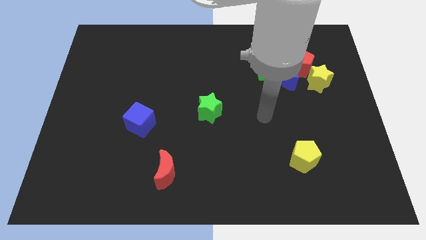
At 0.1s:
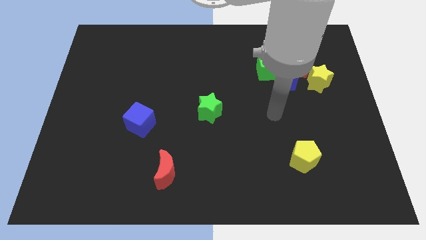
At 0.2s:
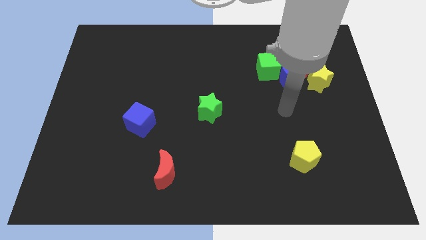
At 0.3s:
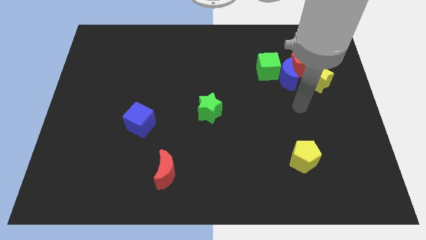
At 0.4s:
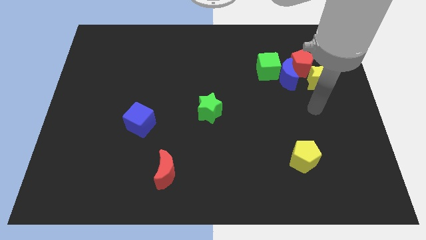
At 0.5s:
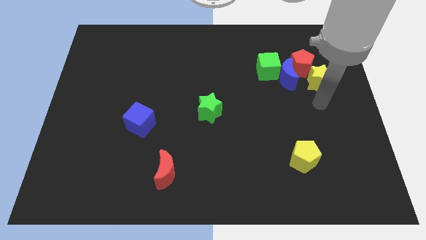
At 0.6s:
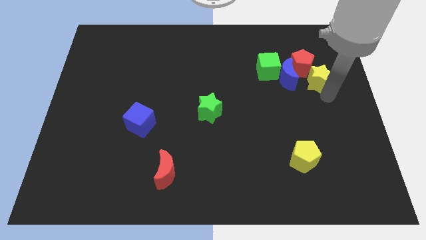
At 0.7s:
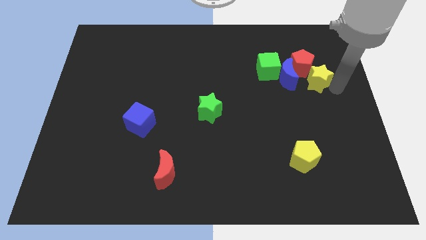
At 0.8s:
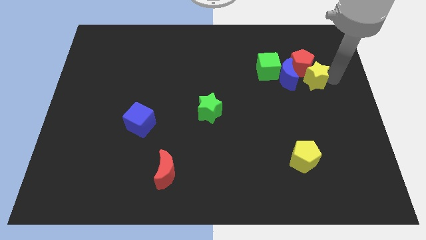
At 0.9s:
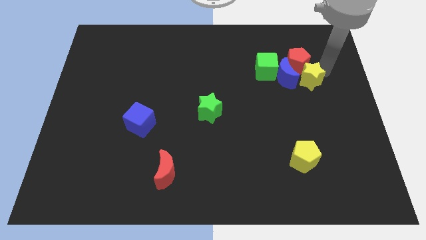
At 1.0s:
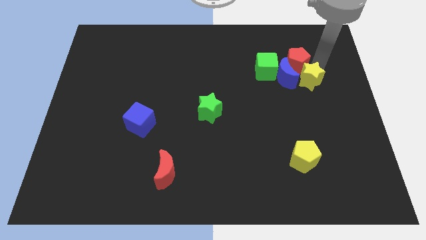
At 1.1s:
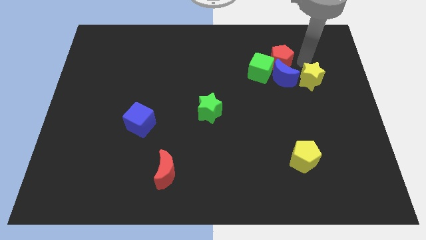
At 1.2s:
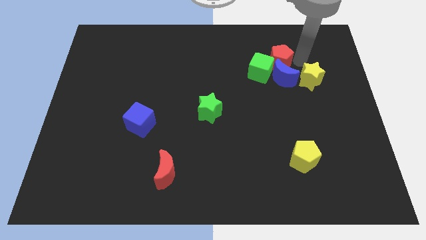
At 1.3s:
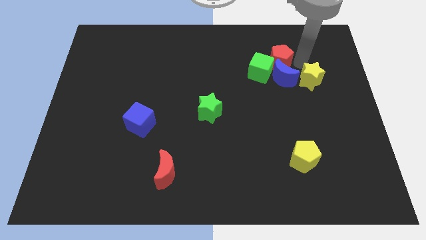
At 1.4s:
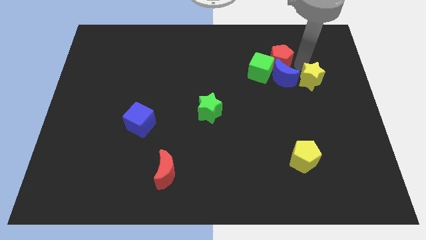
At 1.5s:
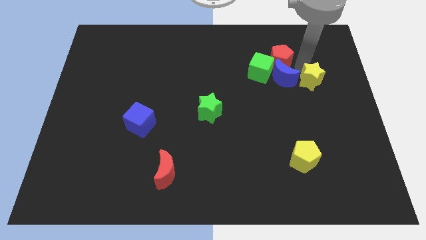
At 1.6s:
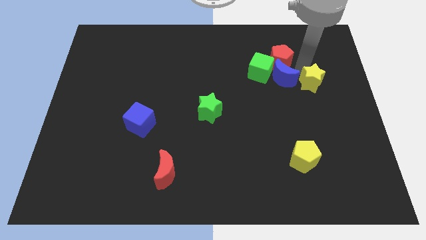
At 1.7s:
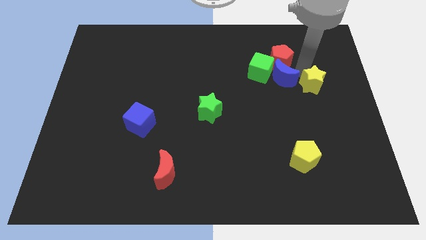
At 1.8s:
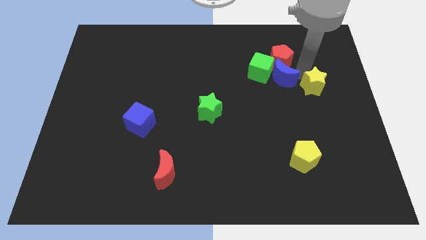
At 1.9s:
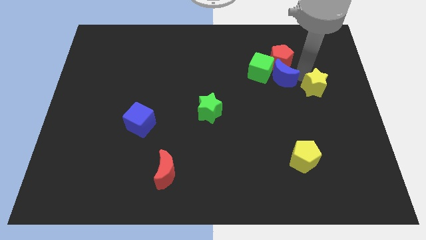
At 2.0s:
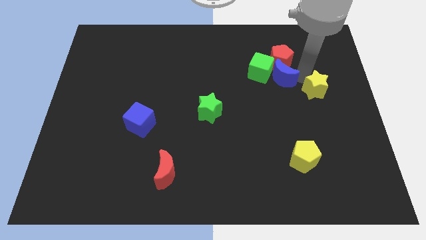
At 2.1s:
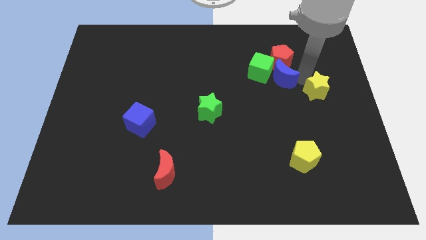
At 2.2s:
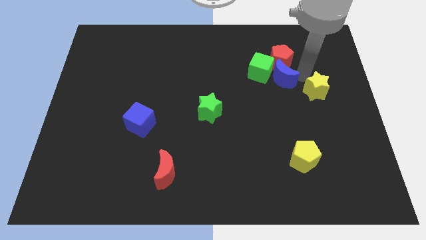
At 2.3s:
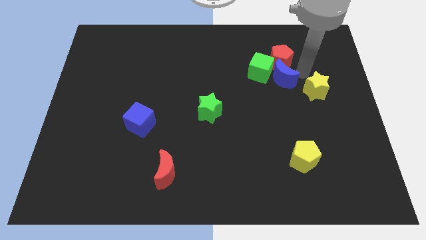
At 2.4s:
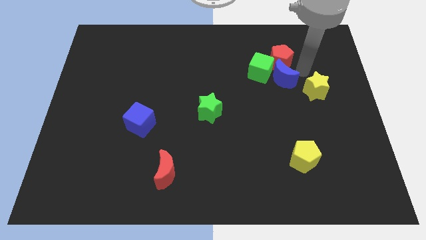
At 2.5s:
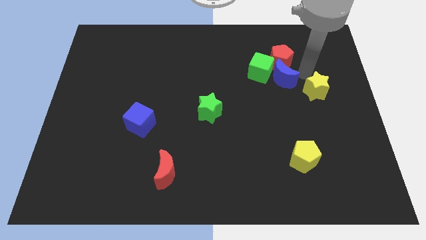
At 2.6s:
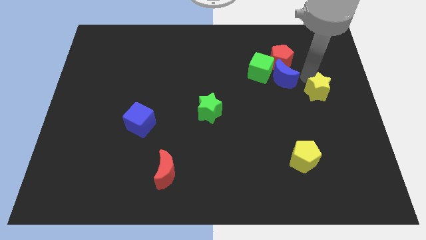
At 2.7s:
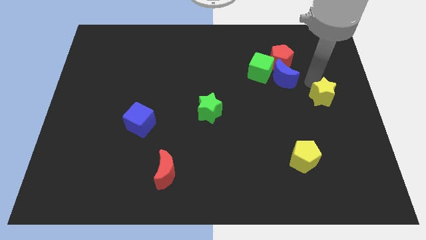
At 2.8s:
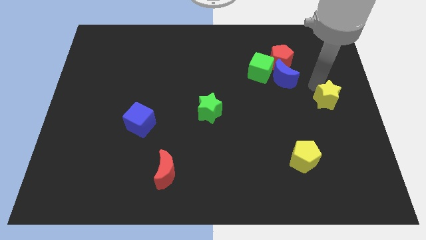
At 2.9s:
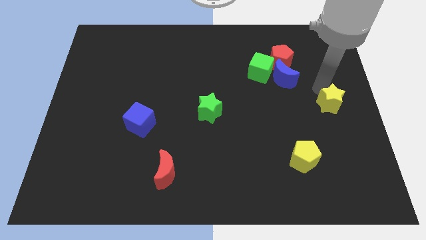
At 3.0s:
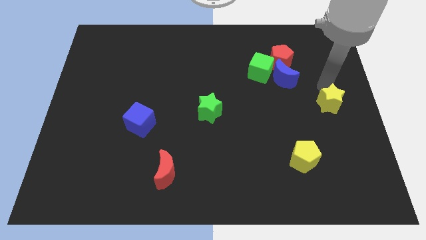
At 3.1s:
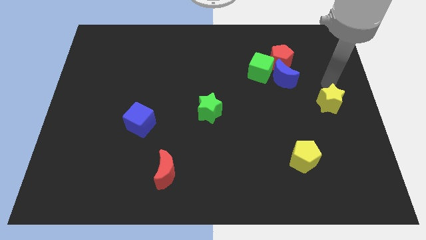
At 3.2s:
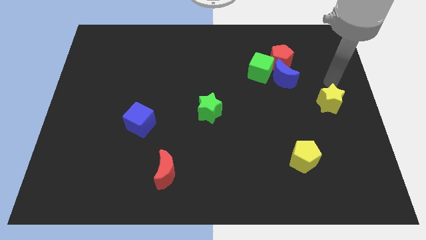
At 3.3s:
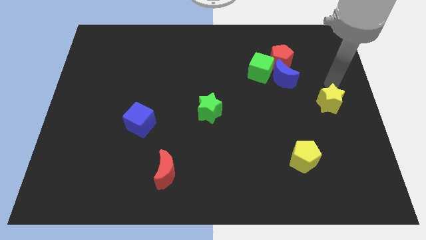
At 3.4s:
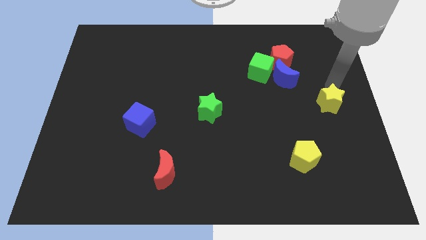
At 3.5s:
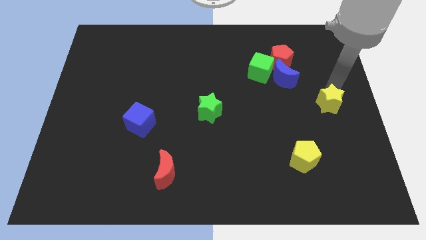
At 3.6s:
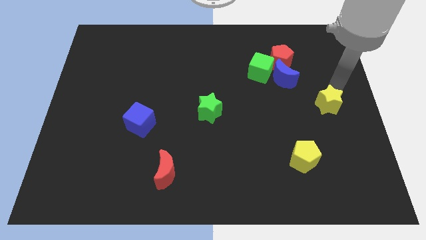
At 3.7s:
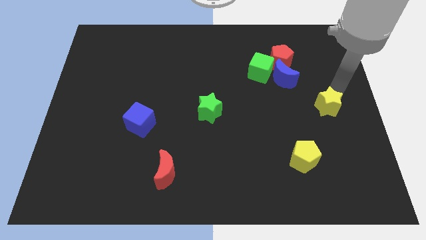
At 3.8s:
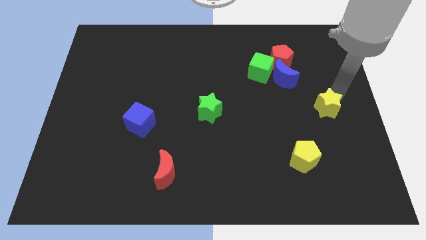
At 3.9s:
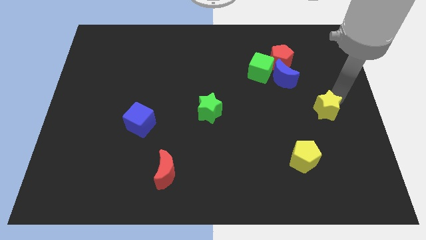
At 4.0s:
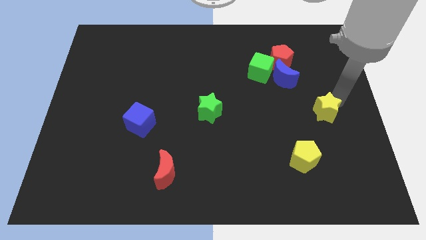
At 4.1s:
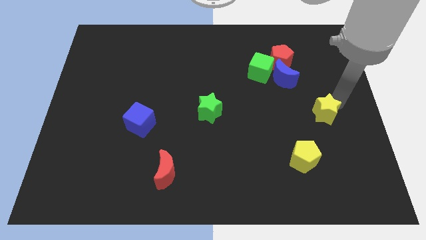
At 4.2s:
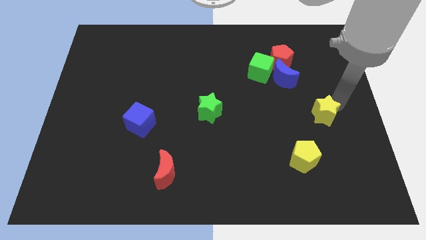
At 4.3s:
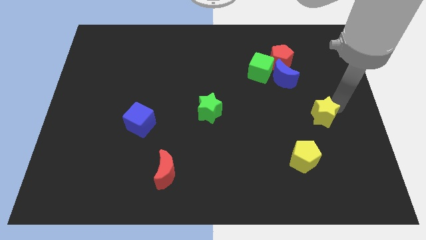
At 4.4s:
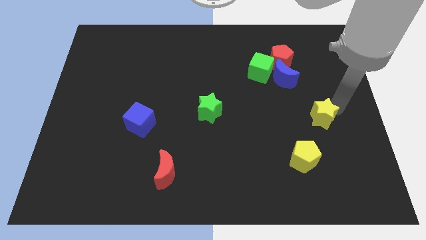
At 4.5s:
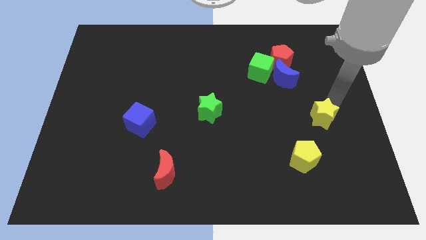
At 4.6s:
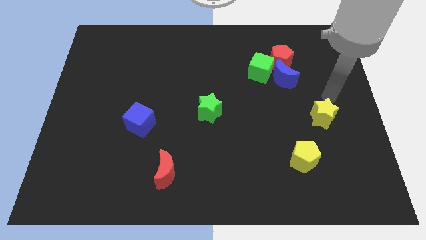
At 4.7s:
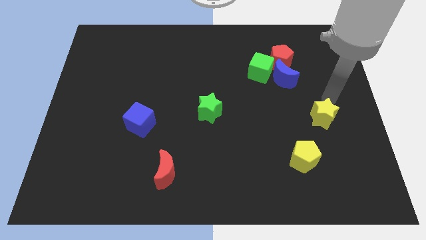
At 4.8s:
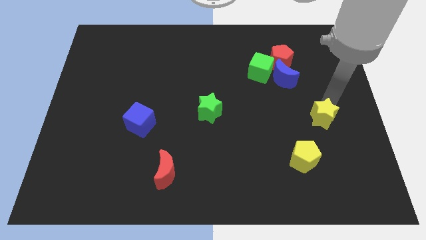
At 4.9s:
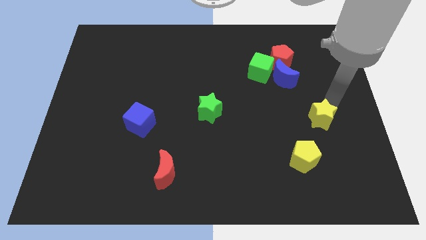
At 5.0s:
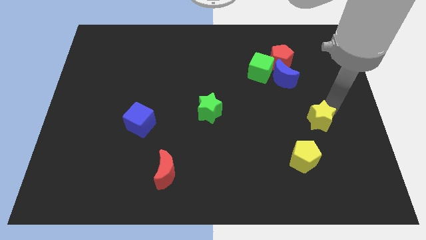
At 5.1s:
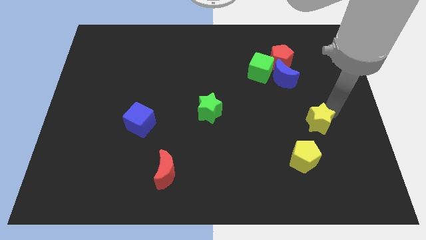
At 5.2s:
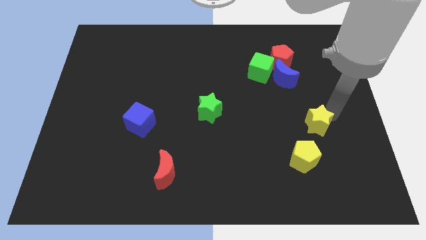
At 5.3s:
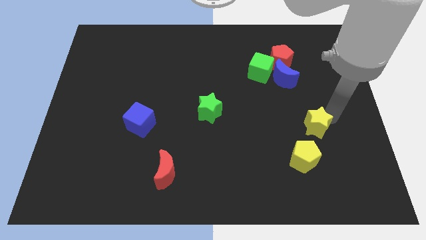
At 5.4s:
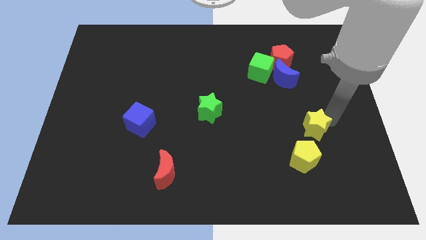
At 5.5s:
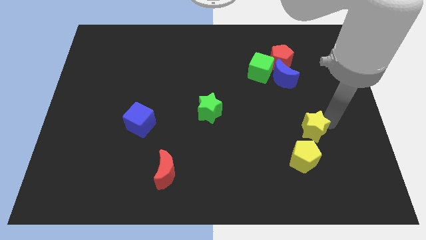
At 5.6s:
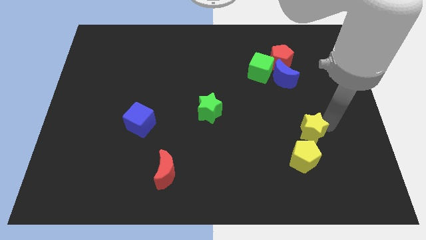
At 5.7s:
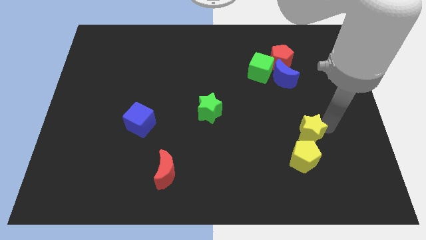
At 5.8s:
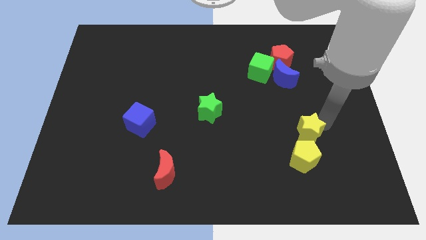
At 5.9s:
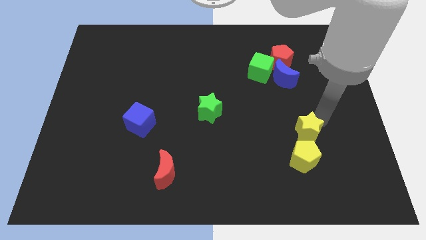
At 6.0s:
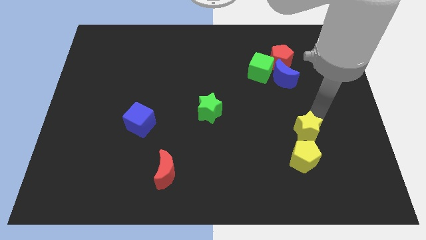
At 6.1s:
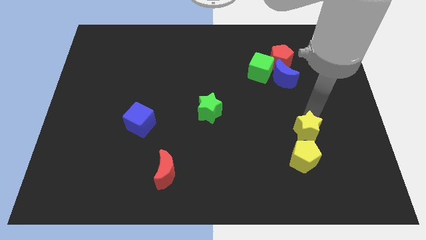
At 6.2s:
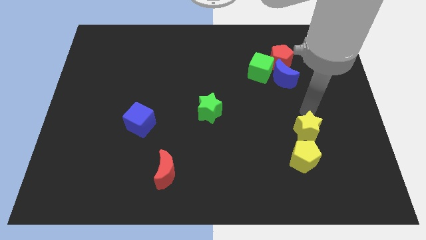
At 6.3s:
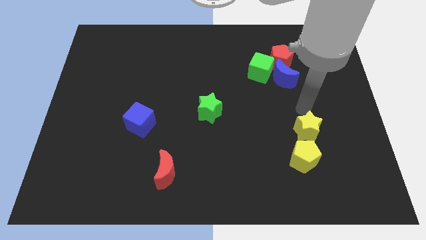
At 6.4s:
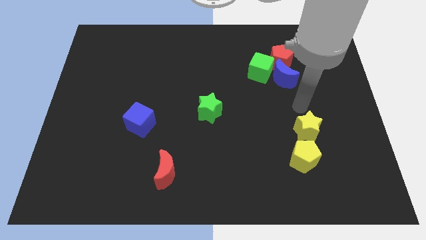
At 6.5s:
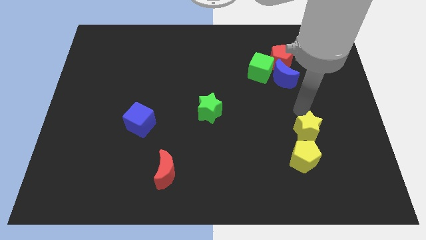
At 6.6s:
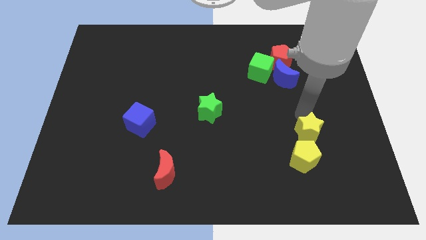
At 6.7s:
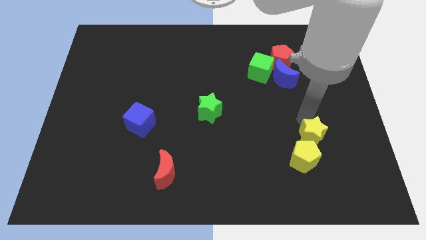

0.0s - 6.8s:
push the yellow star to the yellow pentagon
